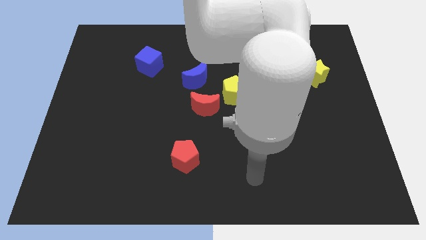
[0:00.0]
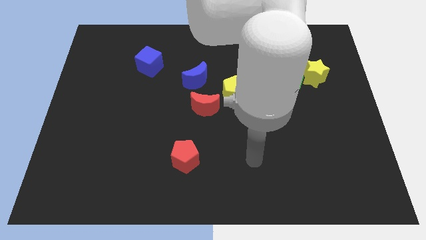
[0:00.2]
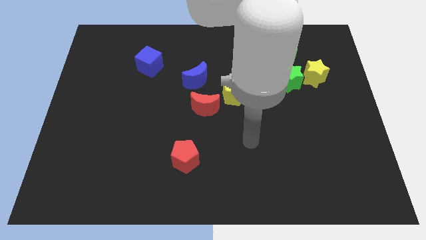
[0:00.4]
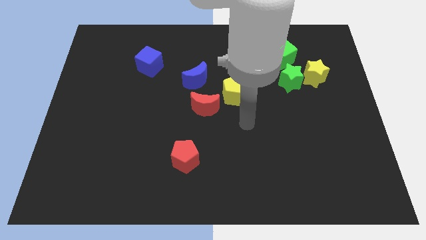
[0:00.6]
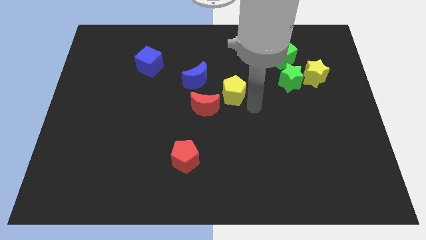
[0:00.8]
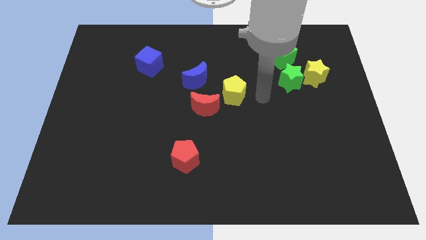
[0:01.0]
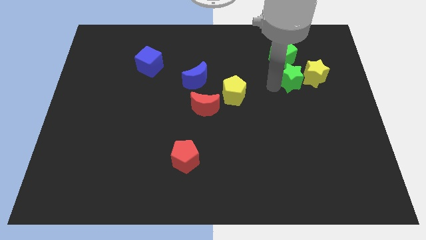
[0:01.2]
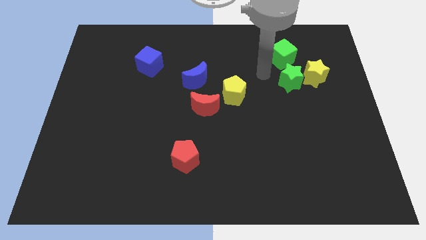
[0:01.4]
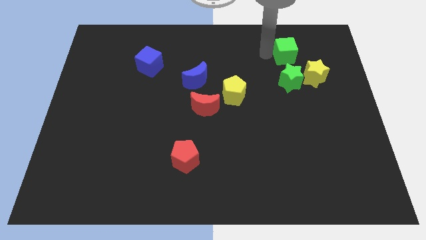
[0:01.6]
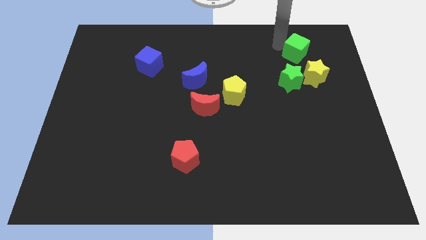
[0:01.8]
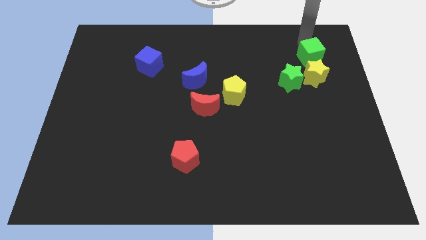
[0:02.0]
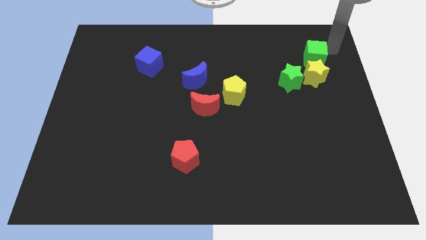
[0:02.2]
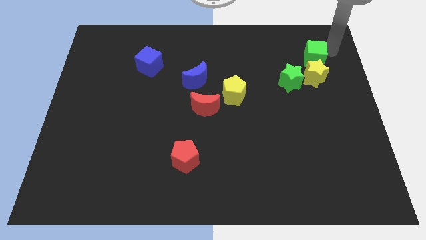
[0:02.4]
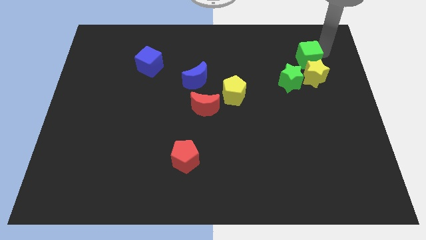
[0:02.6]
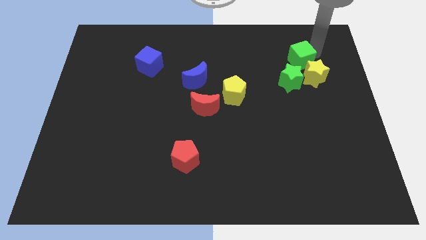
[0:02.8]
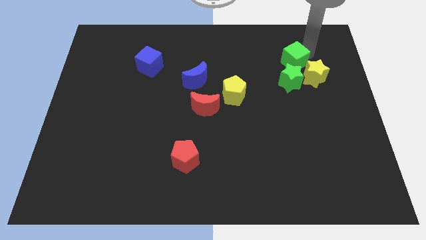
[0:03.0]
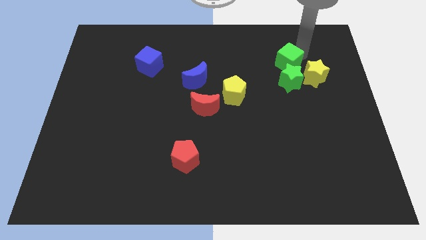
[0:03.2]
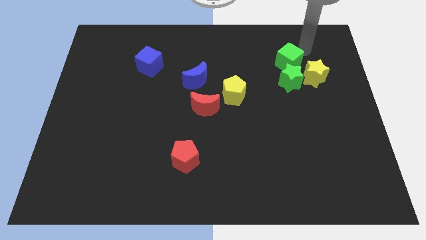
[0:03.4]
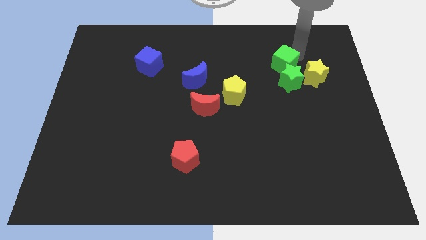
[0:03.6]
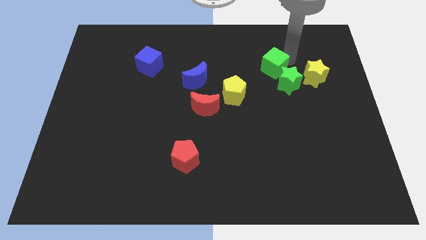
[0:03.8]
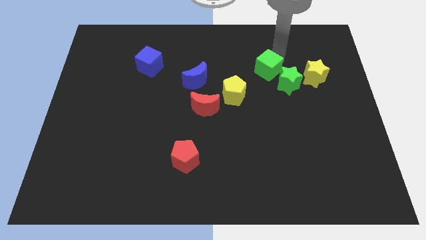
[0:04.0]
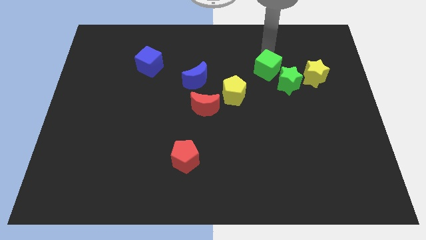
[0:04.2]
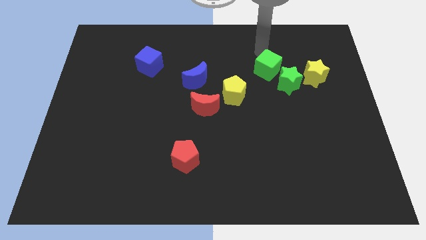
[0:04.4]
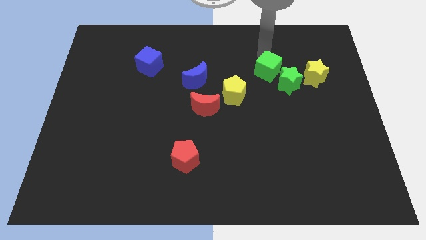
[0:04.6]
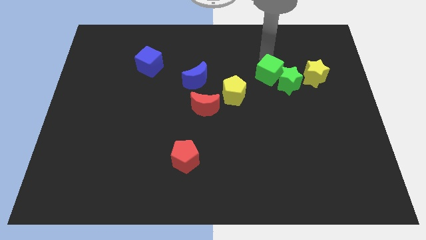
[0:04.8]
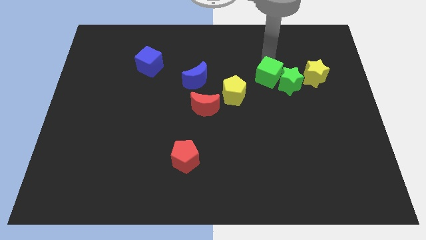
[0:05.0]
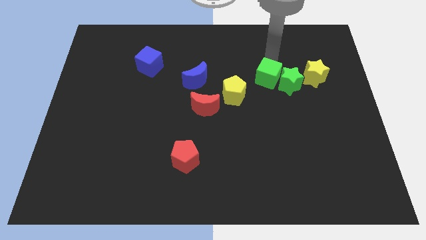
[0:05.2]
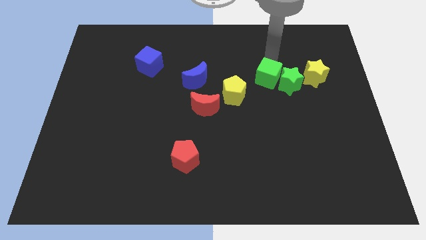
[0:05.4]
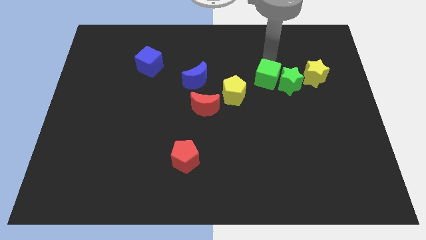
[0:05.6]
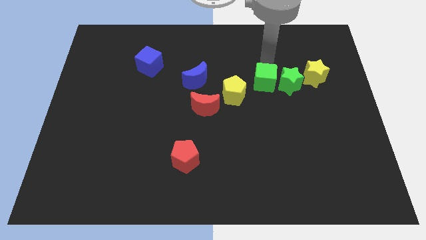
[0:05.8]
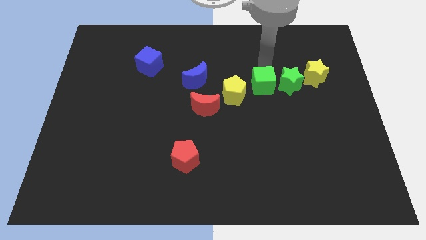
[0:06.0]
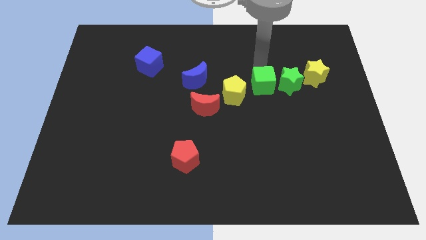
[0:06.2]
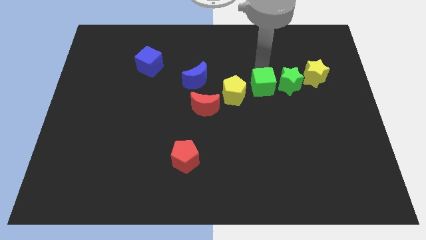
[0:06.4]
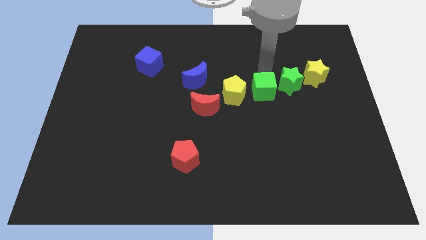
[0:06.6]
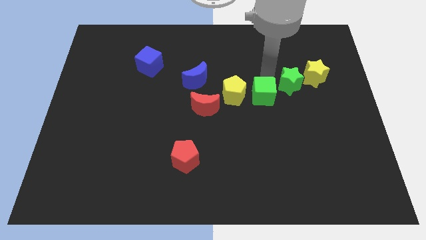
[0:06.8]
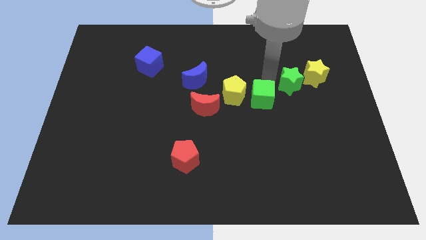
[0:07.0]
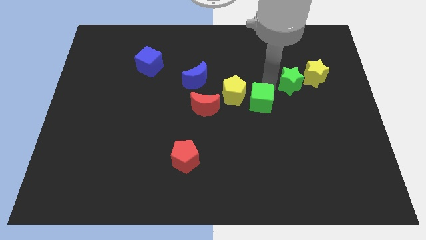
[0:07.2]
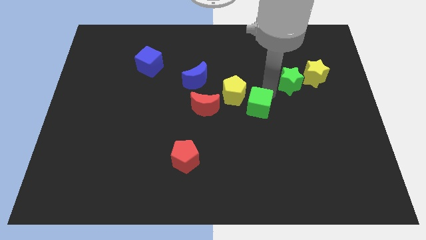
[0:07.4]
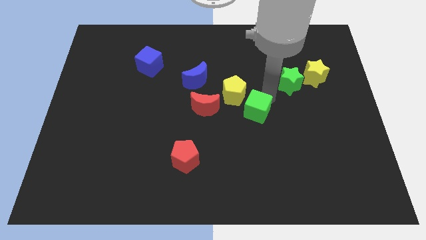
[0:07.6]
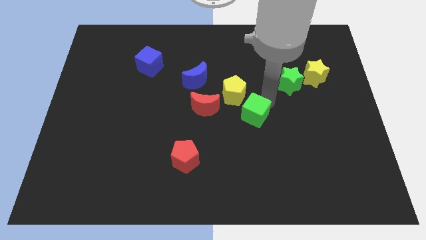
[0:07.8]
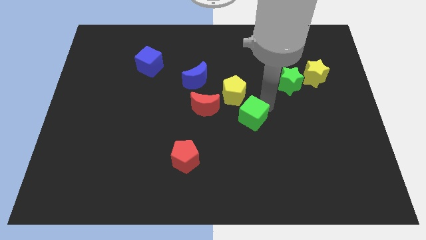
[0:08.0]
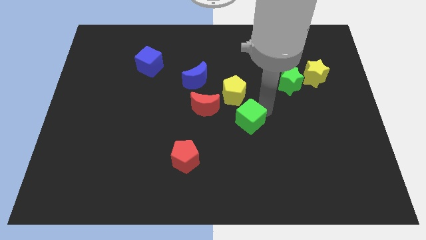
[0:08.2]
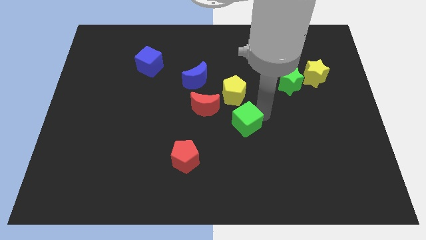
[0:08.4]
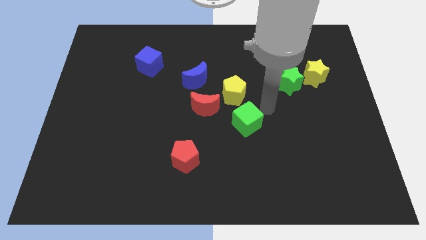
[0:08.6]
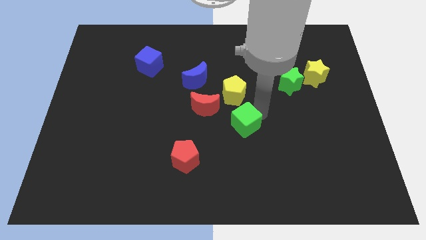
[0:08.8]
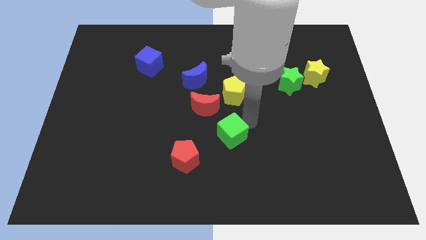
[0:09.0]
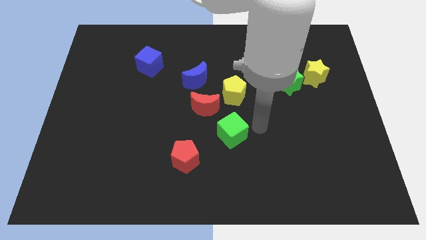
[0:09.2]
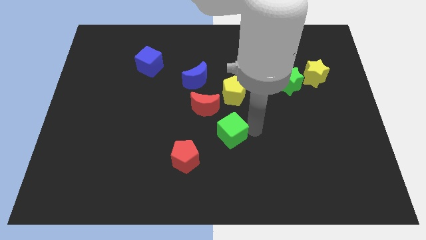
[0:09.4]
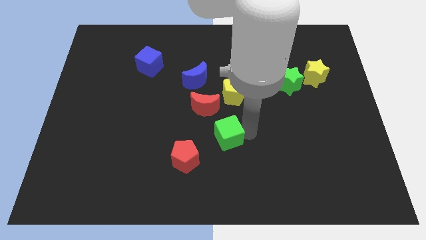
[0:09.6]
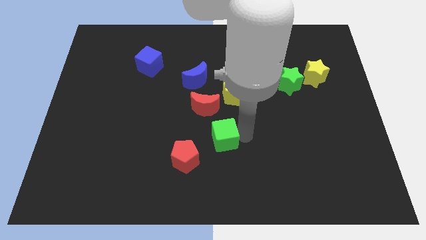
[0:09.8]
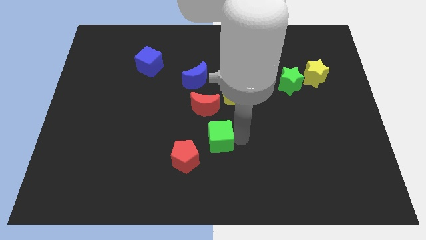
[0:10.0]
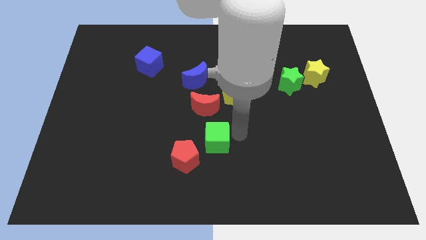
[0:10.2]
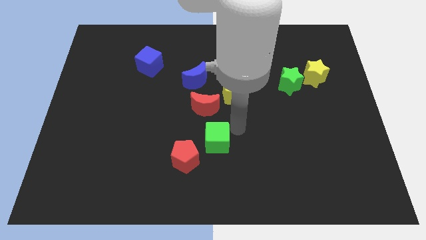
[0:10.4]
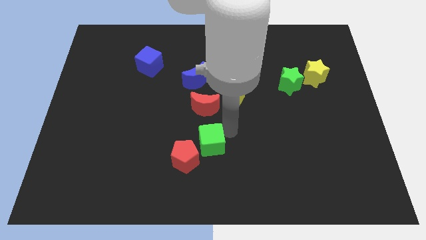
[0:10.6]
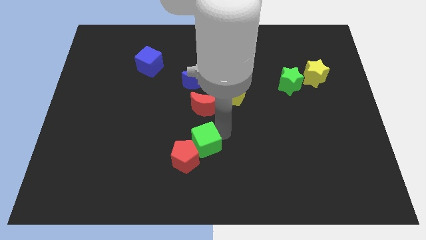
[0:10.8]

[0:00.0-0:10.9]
push the green cube to the red pentagon

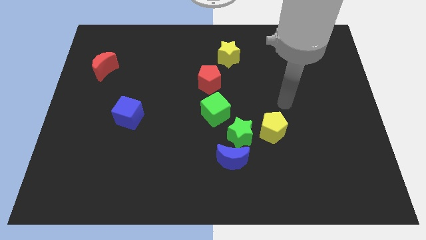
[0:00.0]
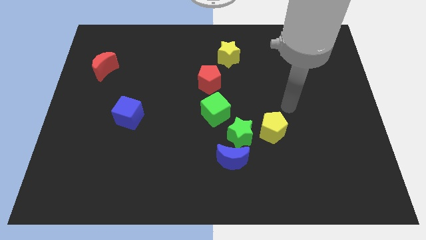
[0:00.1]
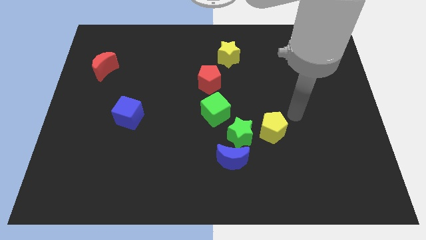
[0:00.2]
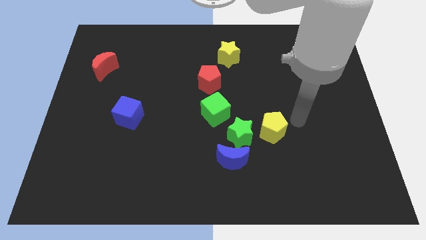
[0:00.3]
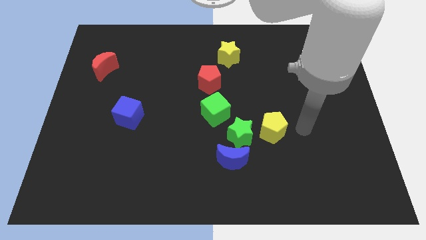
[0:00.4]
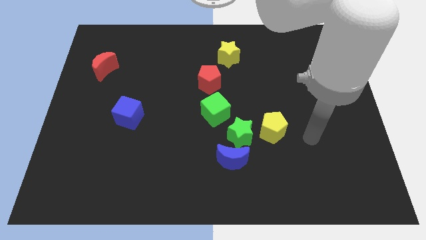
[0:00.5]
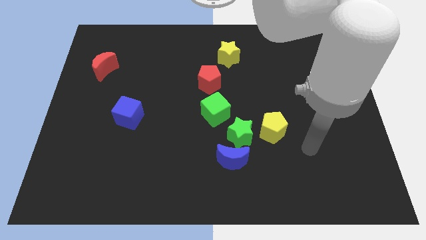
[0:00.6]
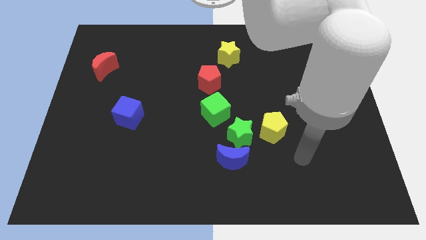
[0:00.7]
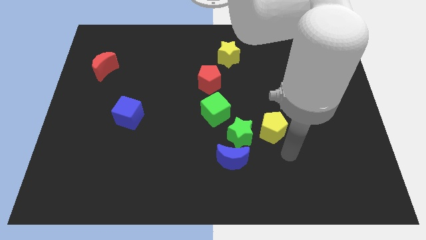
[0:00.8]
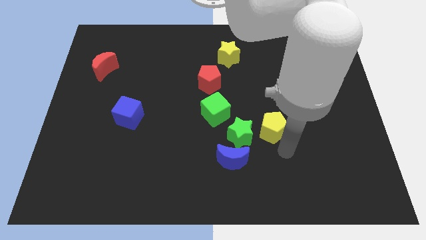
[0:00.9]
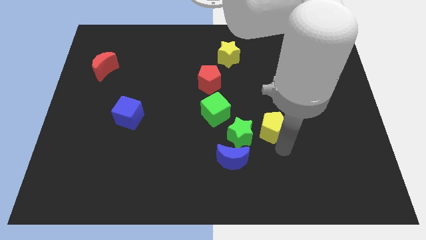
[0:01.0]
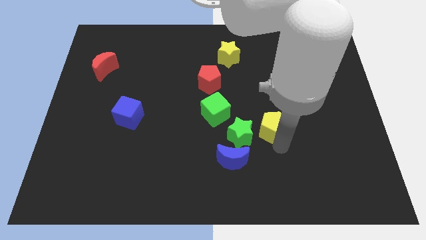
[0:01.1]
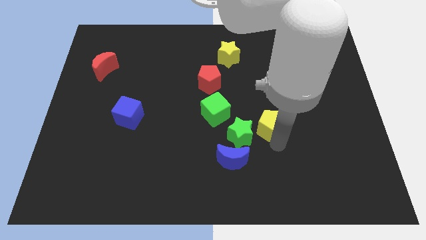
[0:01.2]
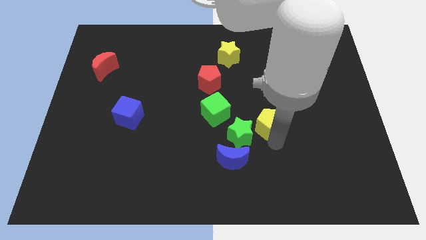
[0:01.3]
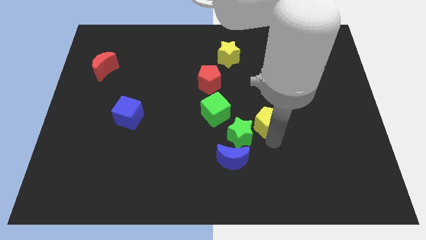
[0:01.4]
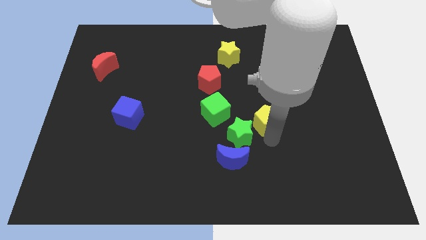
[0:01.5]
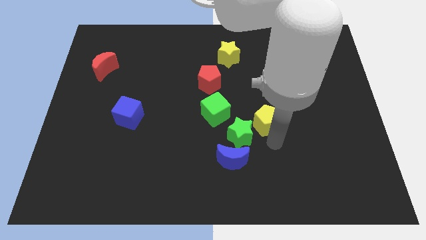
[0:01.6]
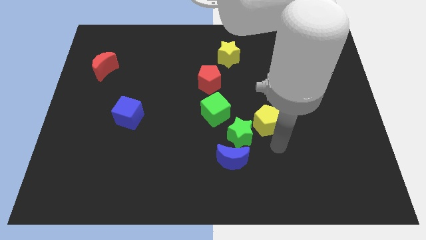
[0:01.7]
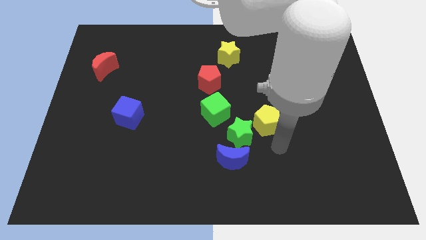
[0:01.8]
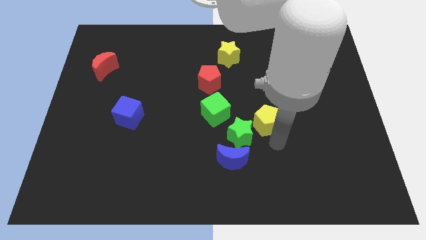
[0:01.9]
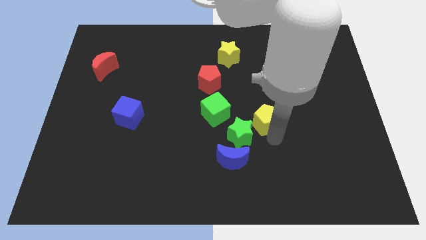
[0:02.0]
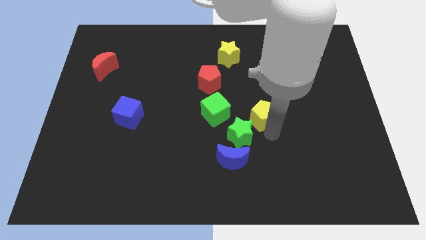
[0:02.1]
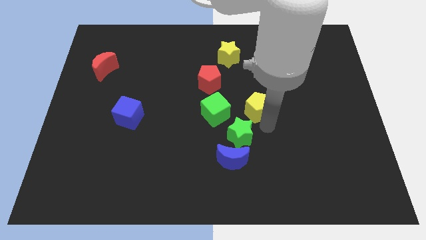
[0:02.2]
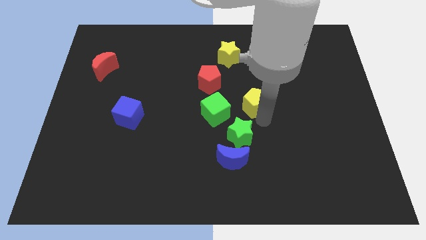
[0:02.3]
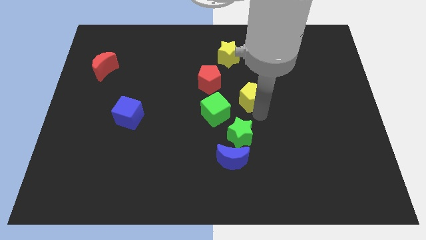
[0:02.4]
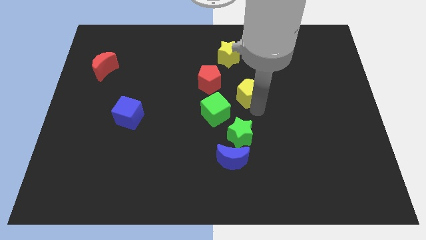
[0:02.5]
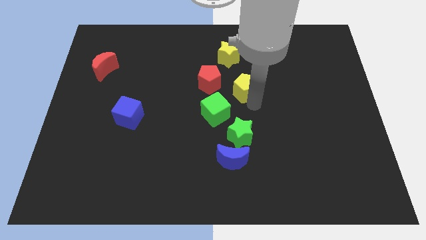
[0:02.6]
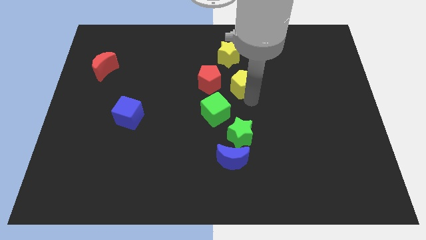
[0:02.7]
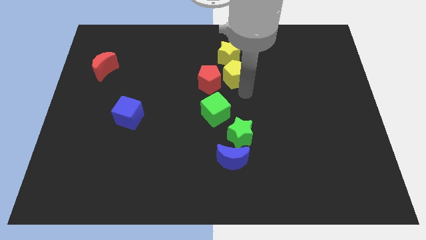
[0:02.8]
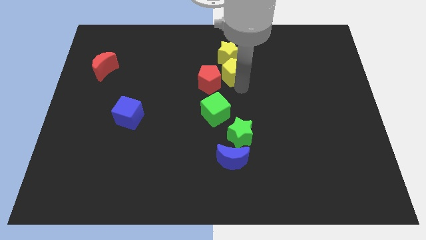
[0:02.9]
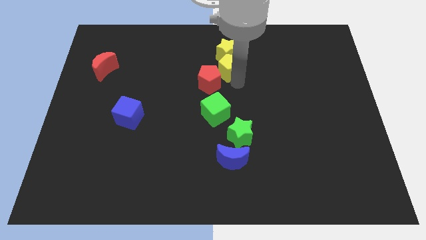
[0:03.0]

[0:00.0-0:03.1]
push the yellow pentagon to the yellow star
